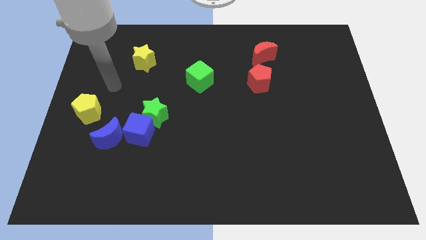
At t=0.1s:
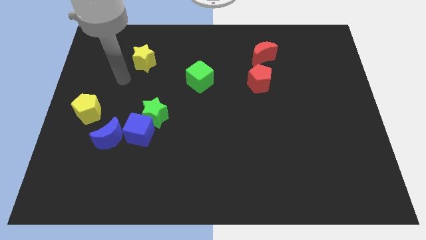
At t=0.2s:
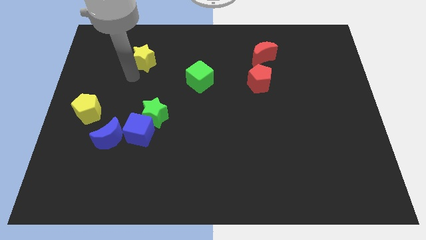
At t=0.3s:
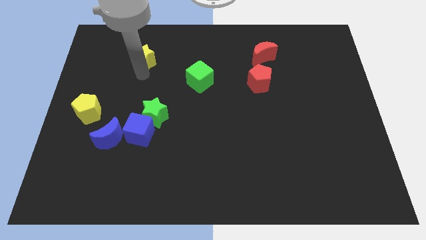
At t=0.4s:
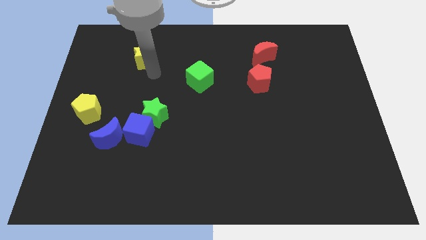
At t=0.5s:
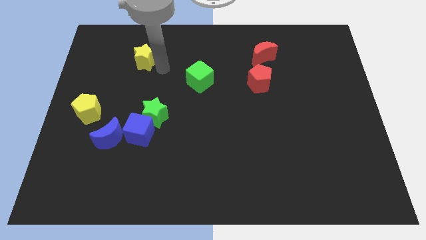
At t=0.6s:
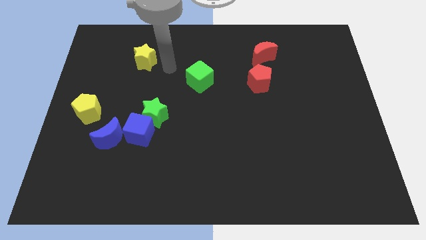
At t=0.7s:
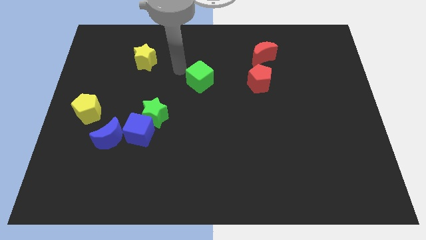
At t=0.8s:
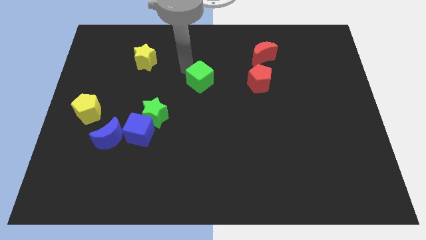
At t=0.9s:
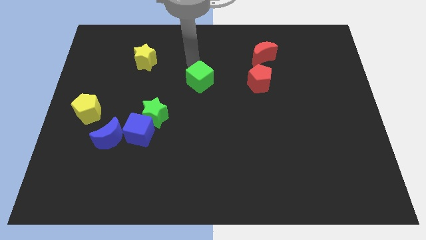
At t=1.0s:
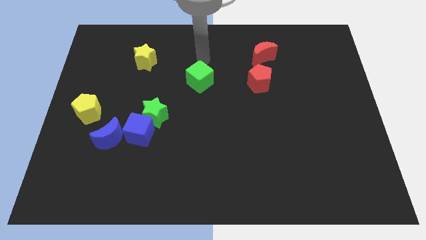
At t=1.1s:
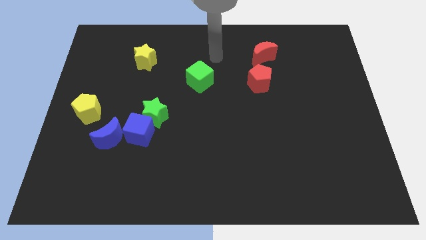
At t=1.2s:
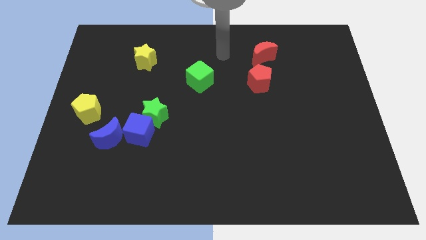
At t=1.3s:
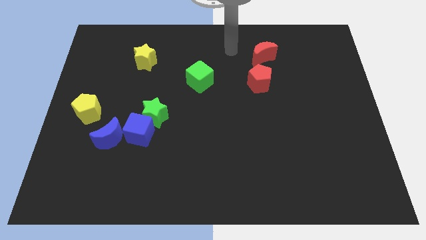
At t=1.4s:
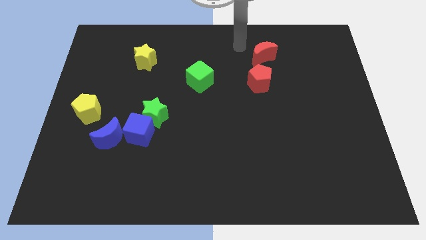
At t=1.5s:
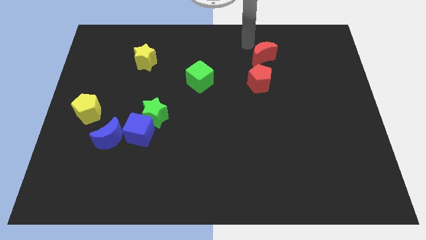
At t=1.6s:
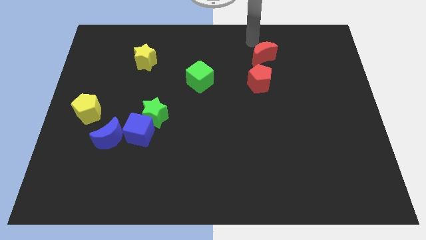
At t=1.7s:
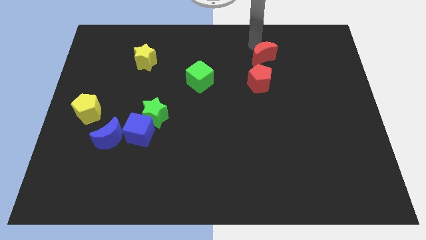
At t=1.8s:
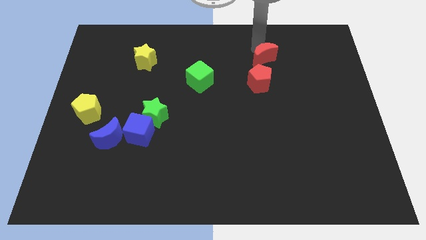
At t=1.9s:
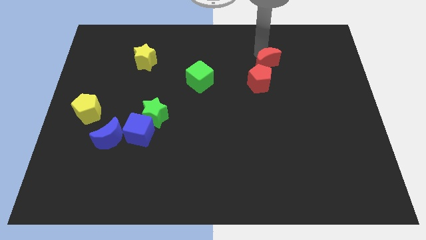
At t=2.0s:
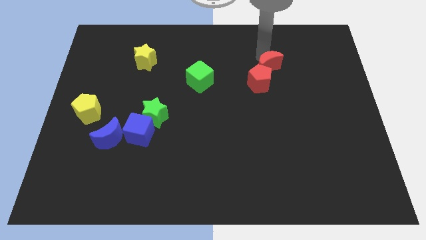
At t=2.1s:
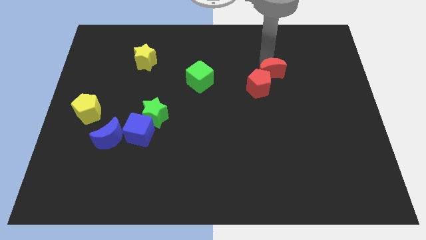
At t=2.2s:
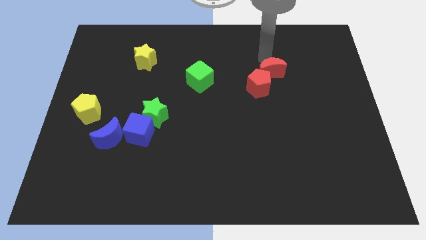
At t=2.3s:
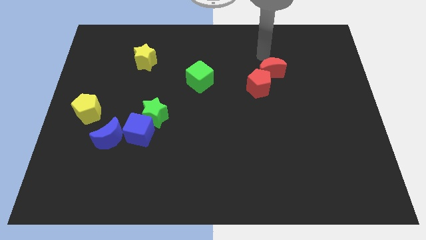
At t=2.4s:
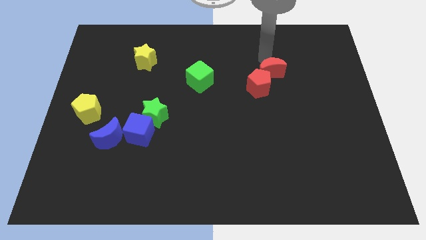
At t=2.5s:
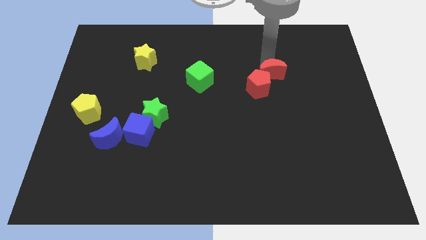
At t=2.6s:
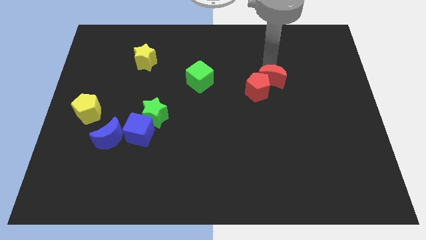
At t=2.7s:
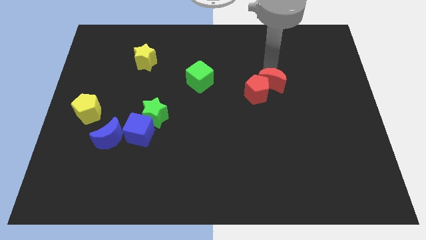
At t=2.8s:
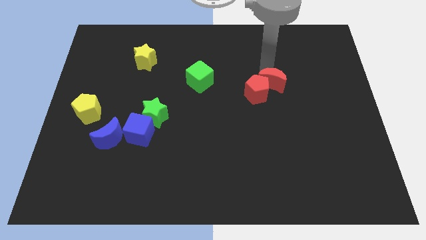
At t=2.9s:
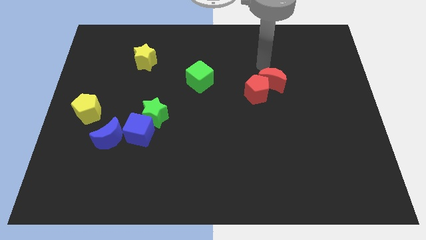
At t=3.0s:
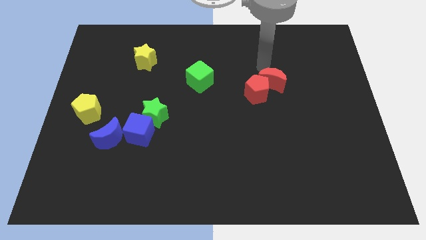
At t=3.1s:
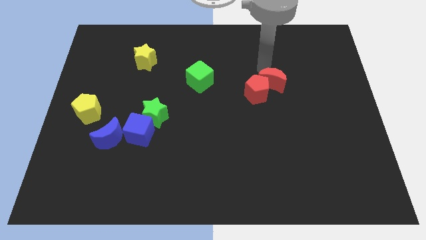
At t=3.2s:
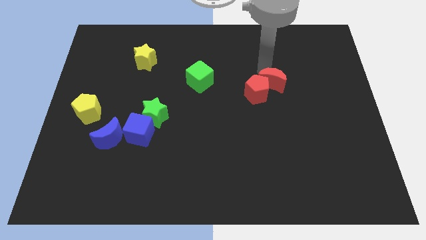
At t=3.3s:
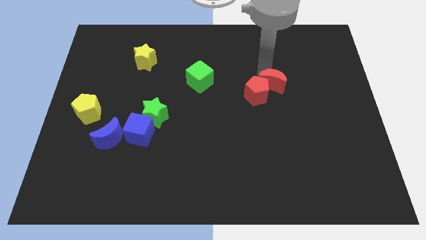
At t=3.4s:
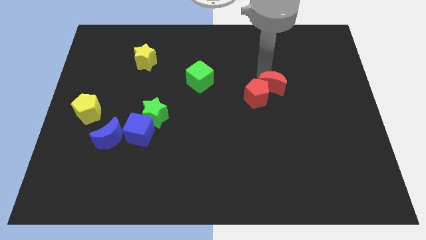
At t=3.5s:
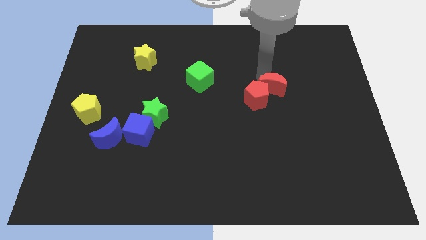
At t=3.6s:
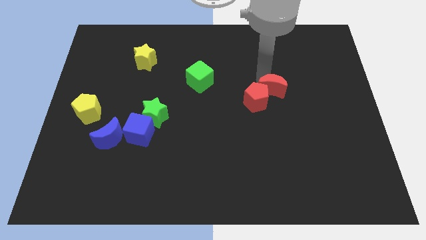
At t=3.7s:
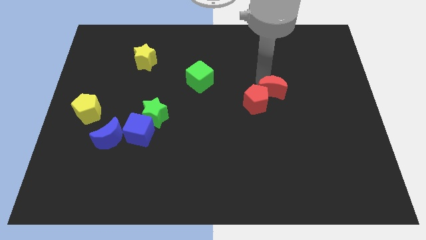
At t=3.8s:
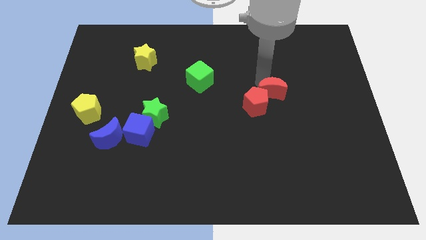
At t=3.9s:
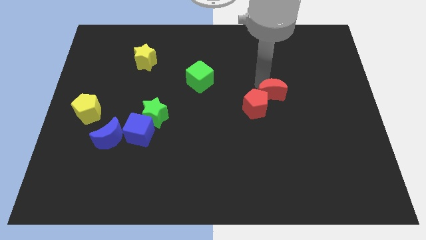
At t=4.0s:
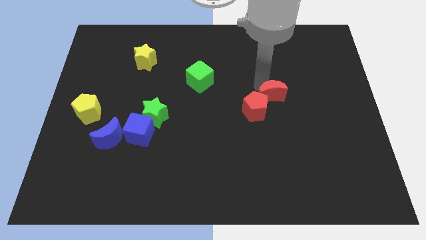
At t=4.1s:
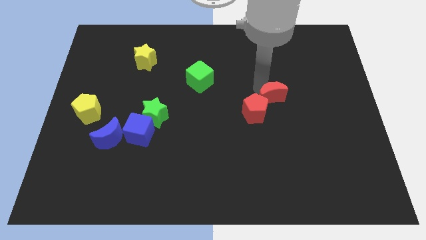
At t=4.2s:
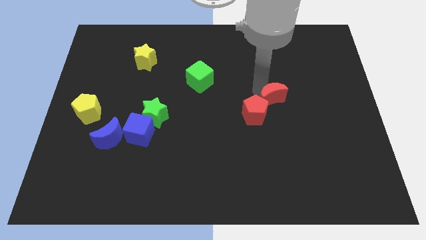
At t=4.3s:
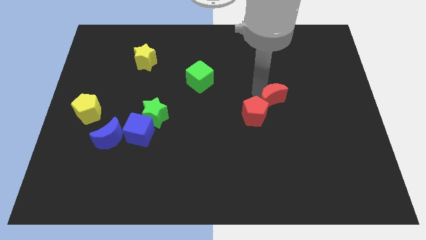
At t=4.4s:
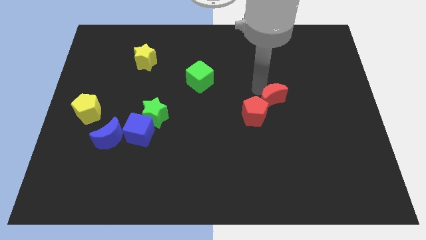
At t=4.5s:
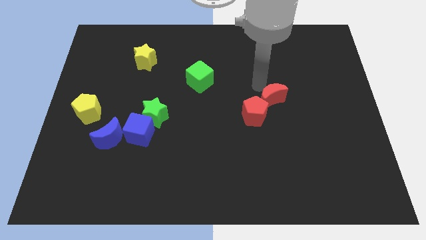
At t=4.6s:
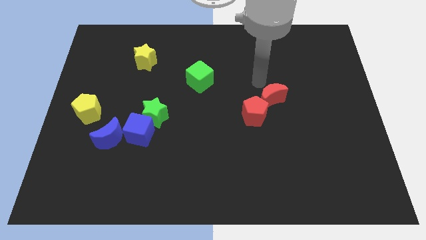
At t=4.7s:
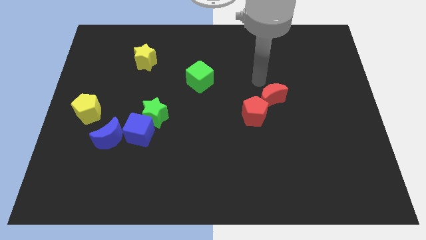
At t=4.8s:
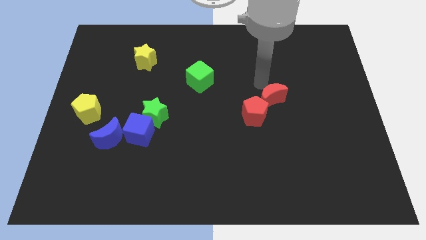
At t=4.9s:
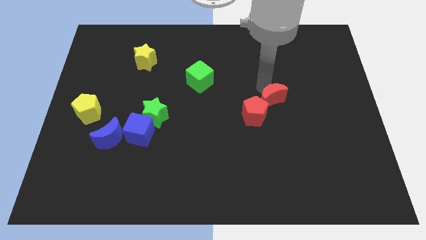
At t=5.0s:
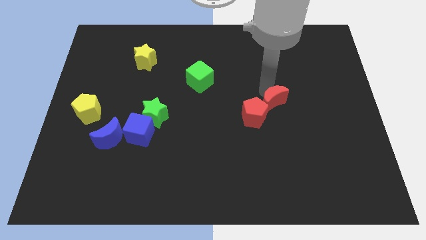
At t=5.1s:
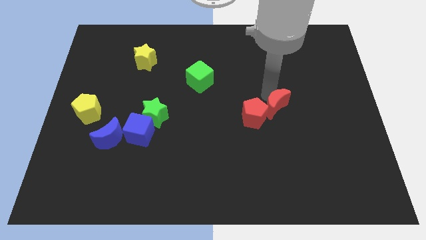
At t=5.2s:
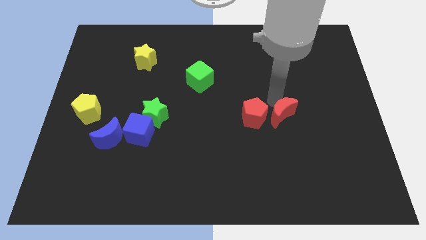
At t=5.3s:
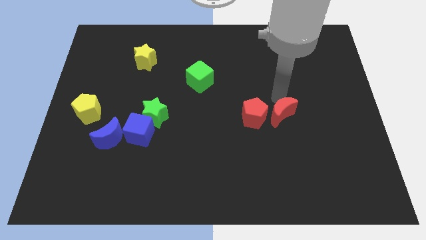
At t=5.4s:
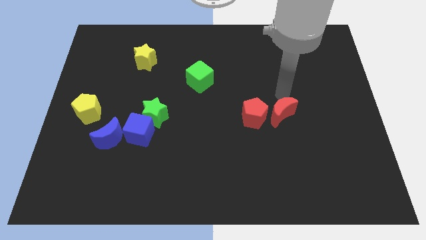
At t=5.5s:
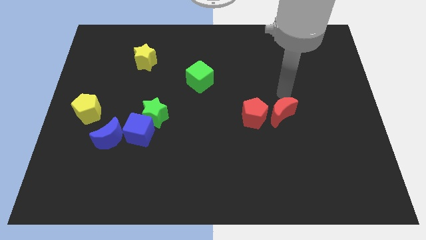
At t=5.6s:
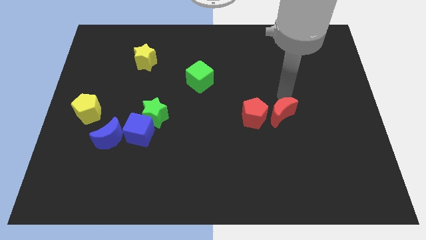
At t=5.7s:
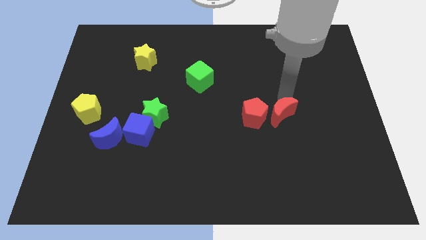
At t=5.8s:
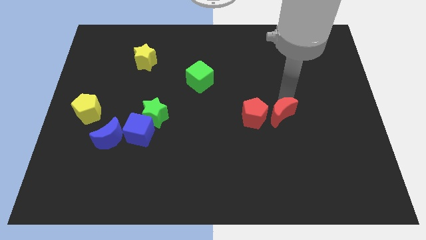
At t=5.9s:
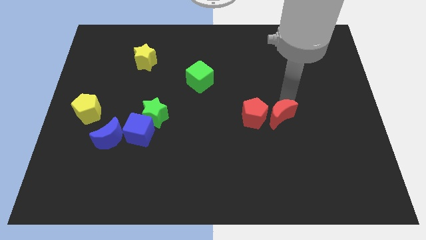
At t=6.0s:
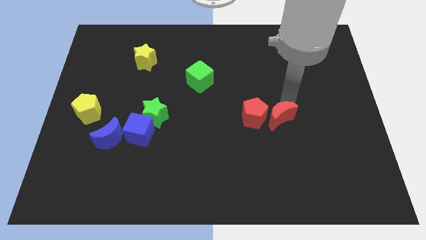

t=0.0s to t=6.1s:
push the red moon downwards

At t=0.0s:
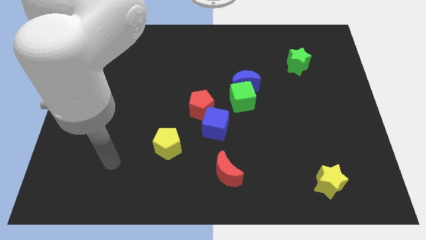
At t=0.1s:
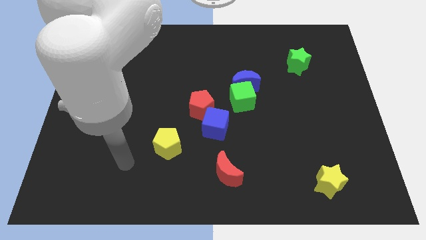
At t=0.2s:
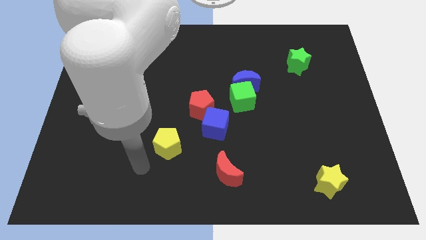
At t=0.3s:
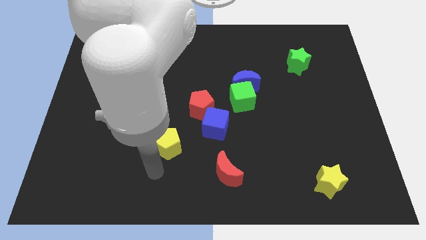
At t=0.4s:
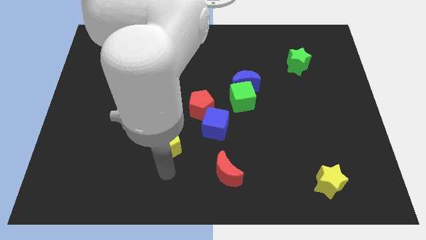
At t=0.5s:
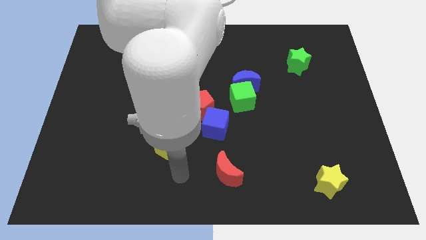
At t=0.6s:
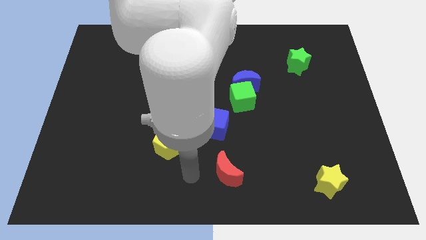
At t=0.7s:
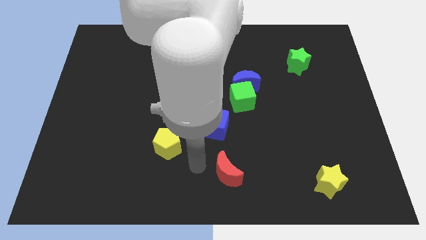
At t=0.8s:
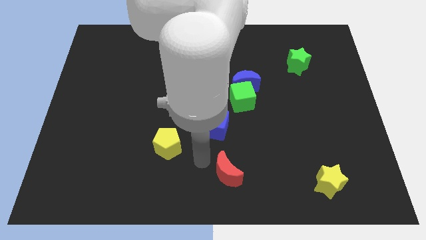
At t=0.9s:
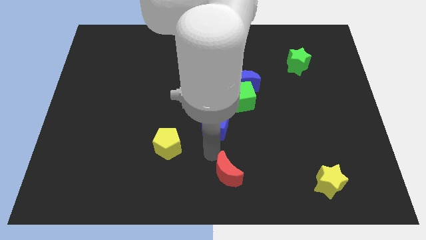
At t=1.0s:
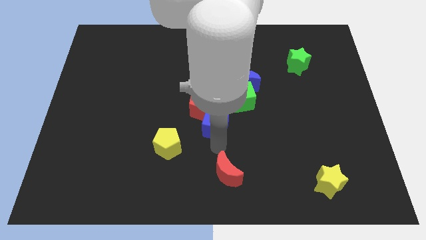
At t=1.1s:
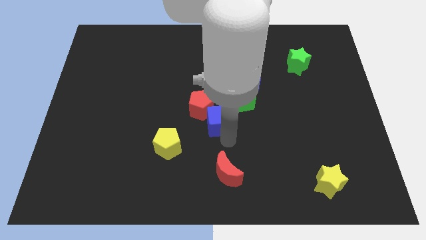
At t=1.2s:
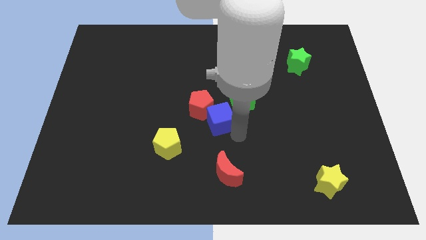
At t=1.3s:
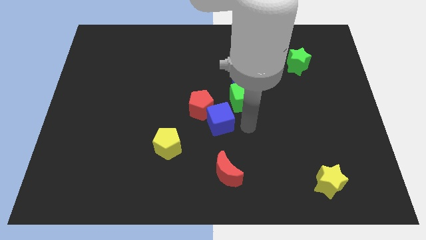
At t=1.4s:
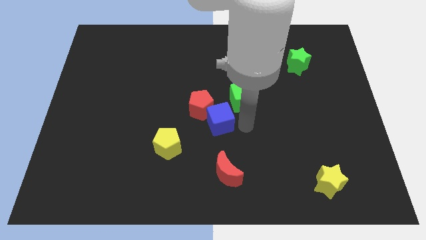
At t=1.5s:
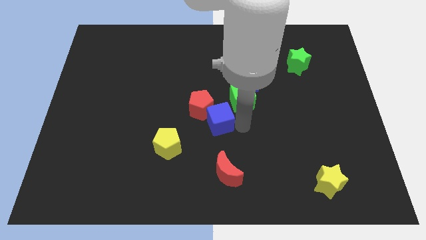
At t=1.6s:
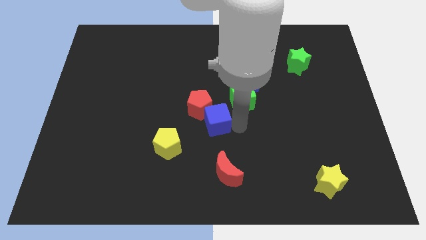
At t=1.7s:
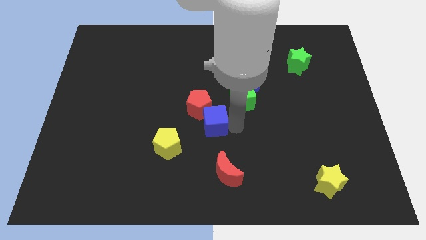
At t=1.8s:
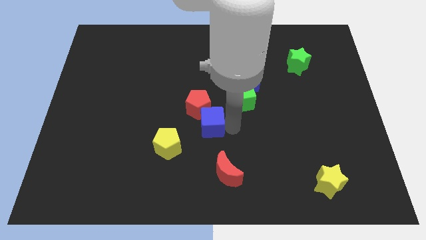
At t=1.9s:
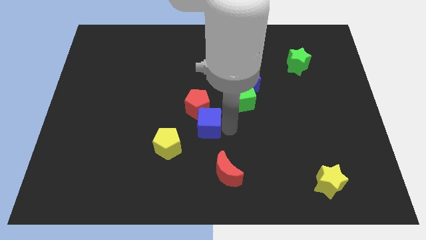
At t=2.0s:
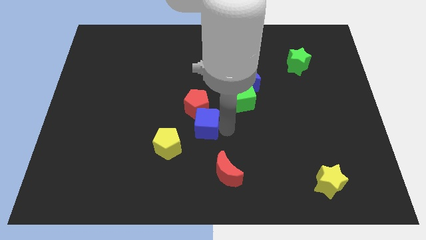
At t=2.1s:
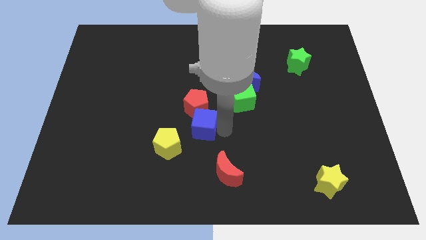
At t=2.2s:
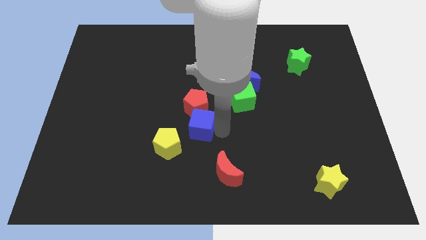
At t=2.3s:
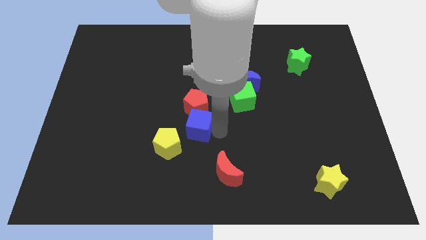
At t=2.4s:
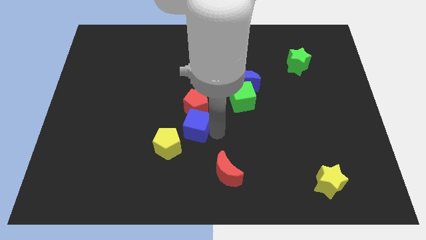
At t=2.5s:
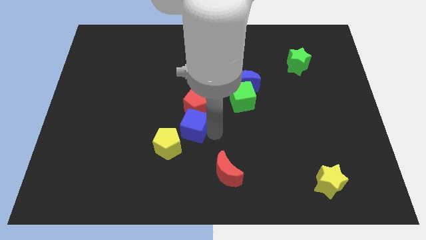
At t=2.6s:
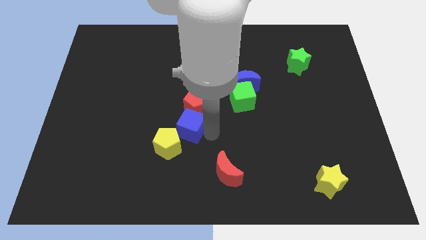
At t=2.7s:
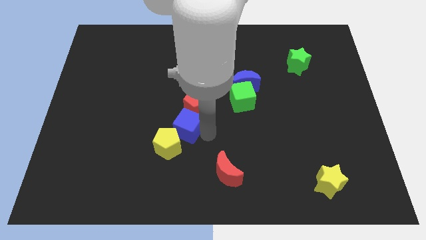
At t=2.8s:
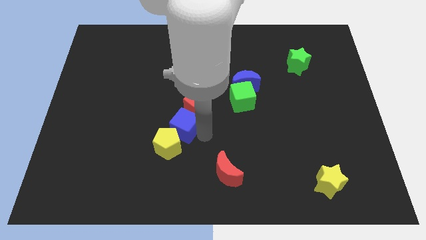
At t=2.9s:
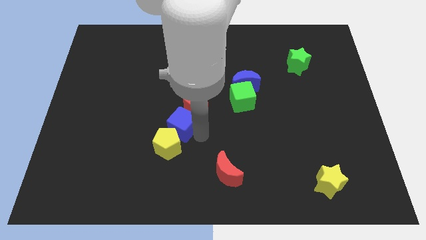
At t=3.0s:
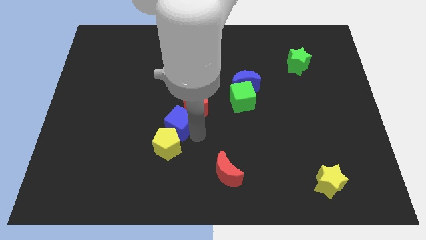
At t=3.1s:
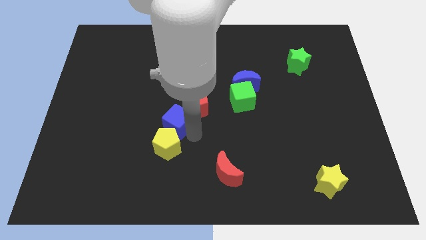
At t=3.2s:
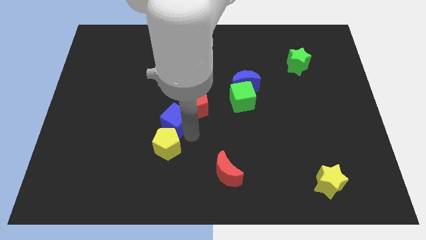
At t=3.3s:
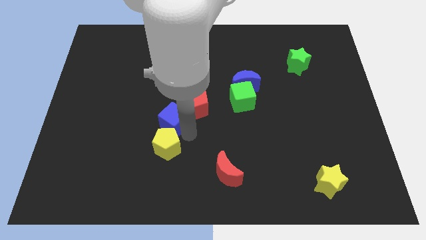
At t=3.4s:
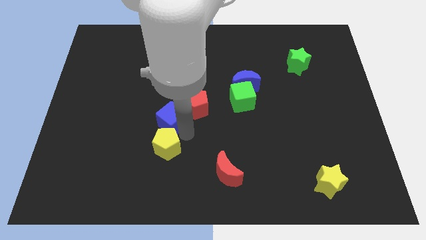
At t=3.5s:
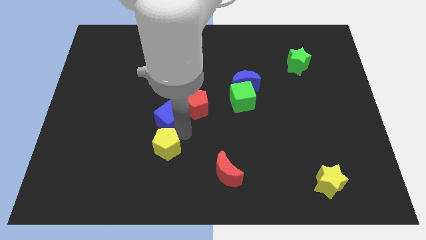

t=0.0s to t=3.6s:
slide the blue cube up and left a bit
